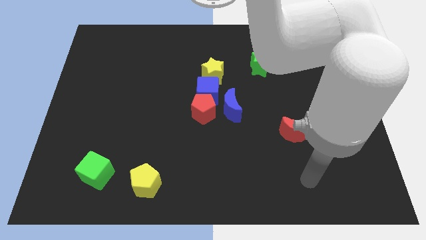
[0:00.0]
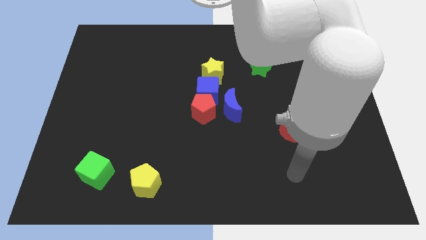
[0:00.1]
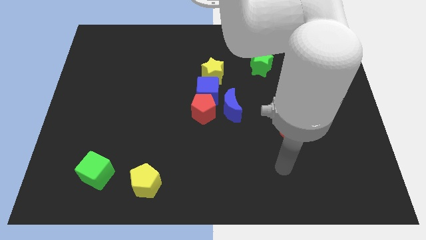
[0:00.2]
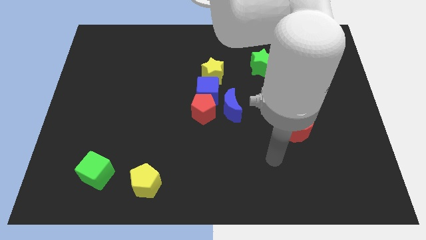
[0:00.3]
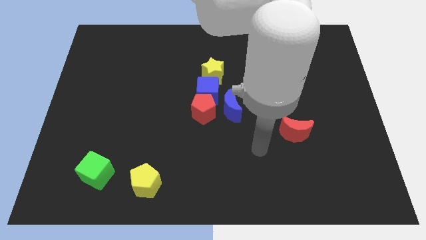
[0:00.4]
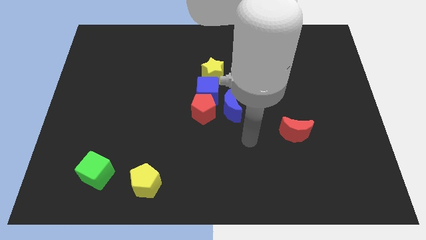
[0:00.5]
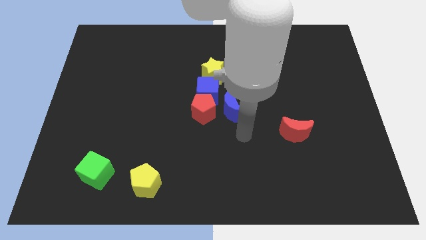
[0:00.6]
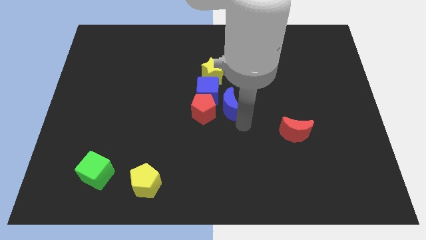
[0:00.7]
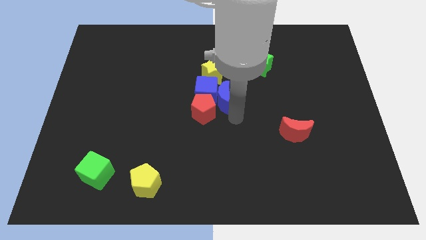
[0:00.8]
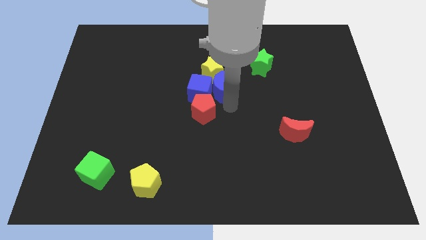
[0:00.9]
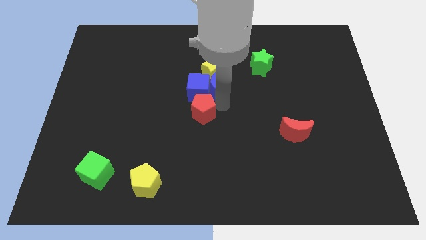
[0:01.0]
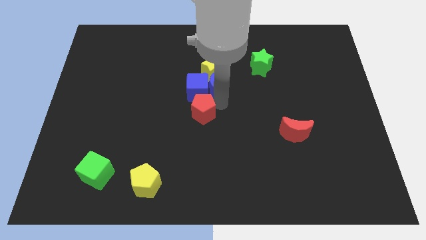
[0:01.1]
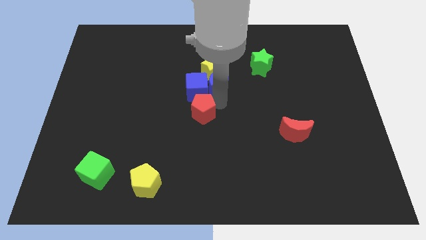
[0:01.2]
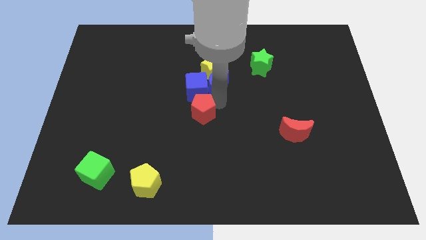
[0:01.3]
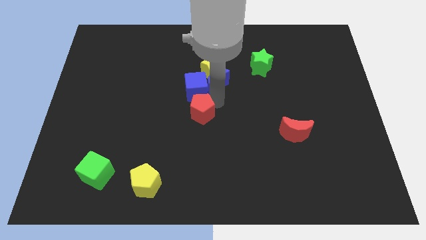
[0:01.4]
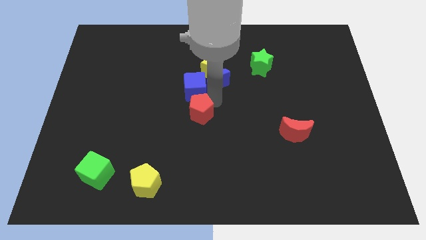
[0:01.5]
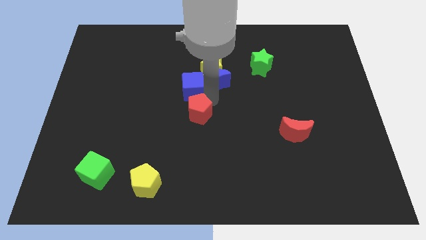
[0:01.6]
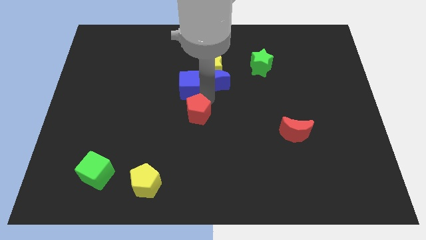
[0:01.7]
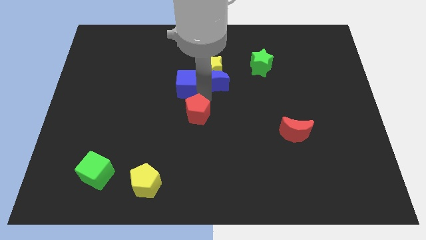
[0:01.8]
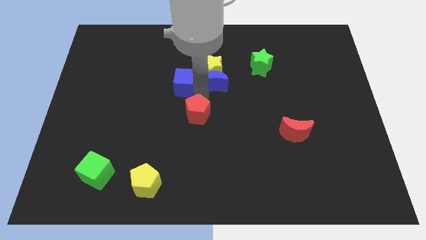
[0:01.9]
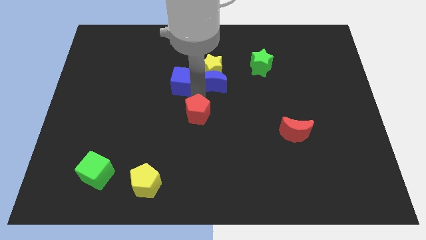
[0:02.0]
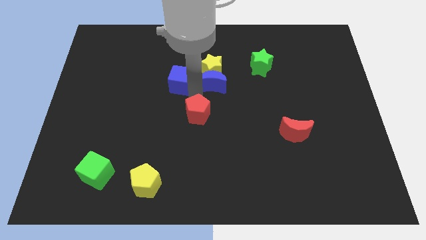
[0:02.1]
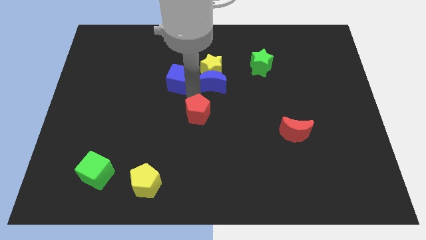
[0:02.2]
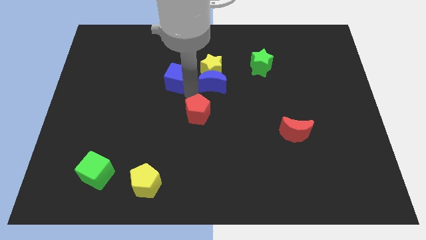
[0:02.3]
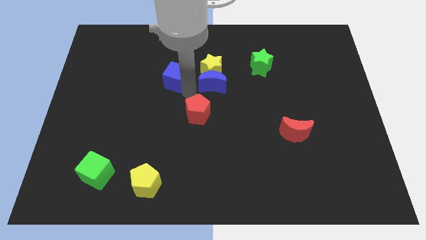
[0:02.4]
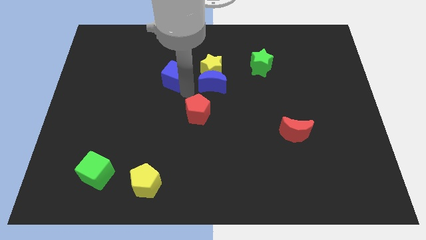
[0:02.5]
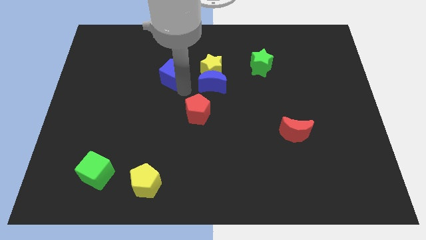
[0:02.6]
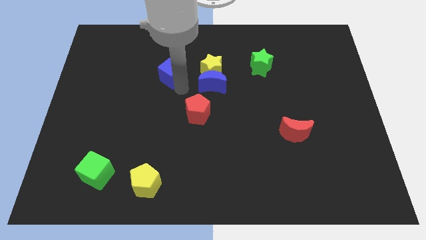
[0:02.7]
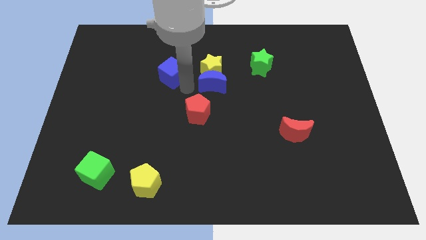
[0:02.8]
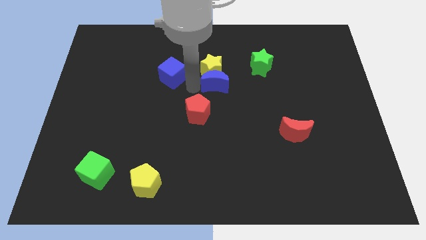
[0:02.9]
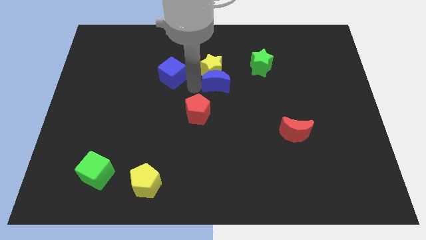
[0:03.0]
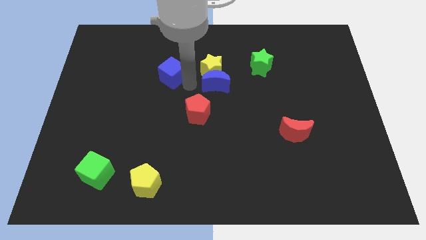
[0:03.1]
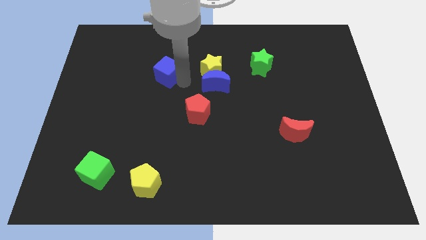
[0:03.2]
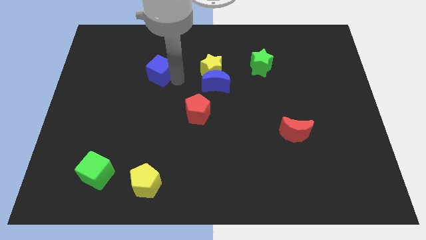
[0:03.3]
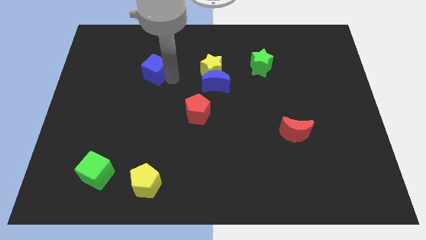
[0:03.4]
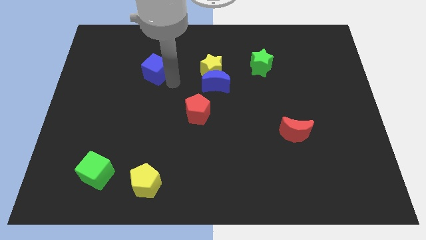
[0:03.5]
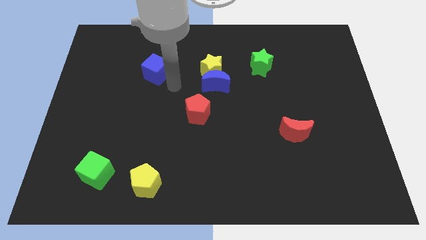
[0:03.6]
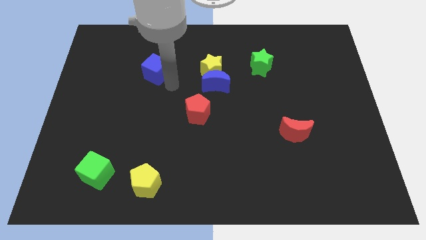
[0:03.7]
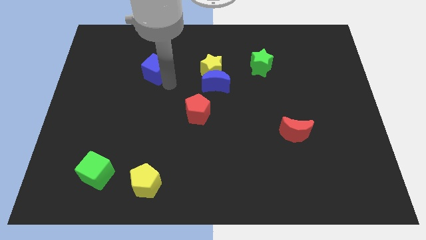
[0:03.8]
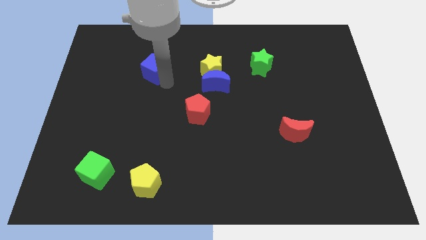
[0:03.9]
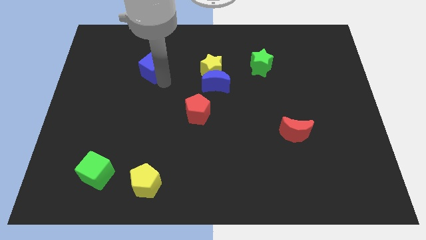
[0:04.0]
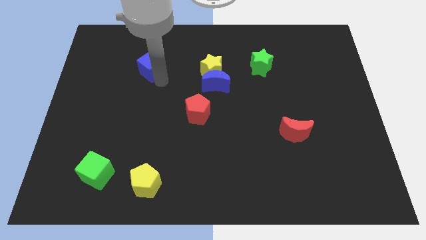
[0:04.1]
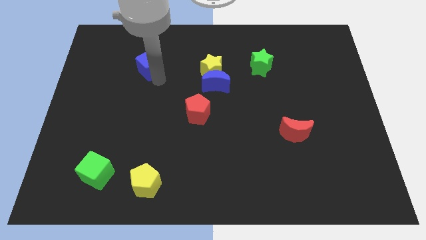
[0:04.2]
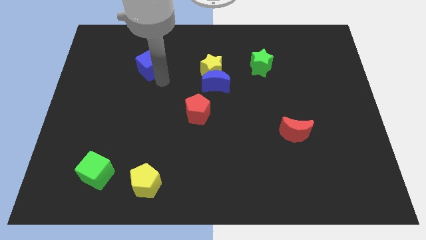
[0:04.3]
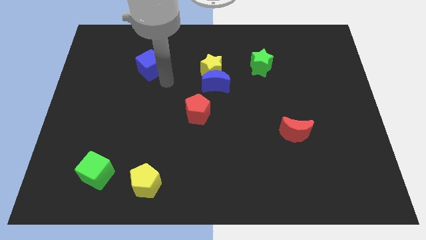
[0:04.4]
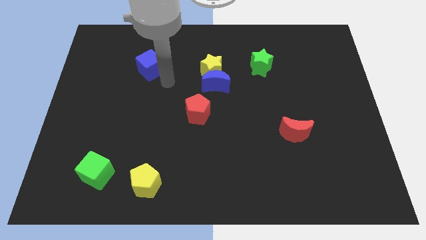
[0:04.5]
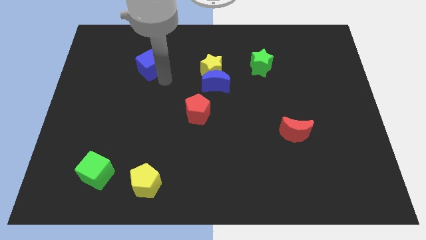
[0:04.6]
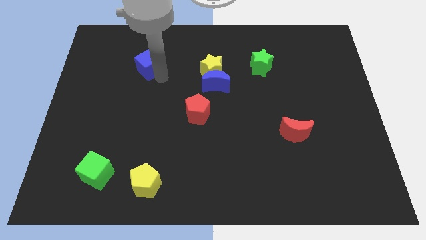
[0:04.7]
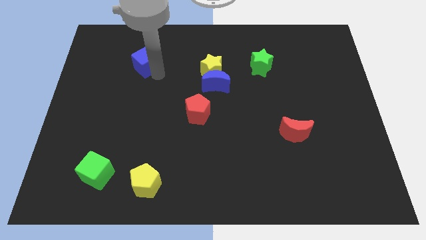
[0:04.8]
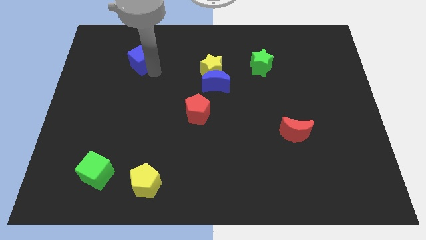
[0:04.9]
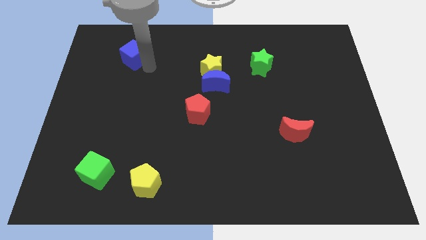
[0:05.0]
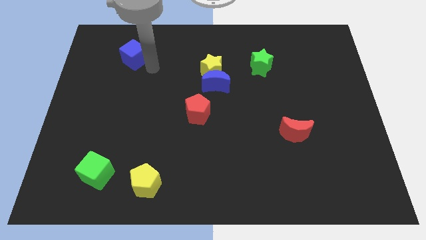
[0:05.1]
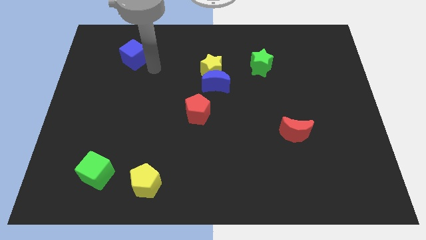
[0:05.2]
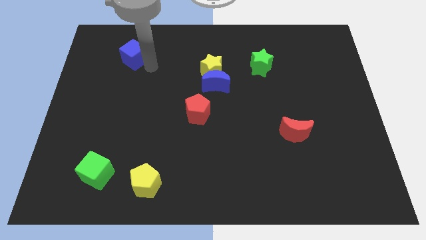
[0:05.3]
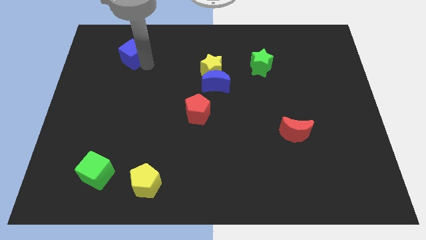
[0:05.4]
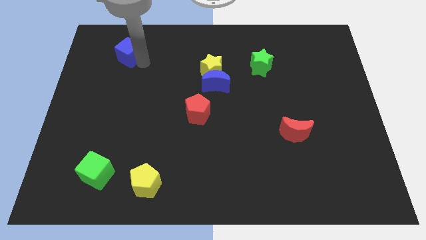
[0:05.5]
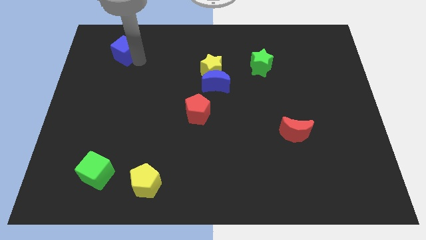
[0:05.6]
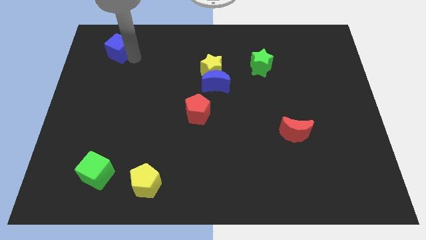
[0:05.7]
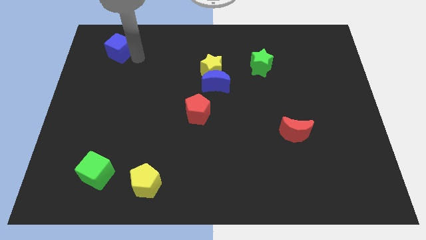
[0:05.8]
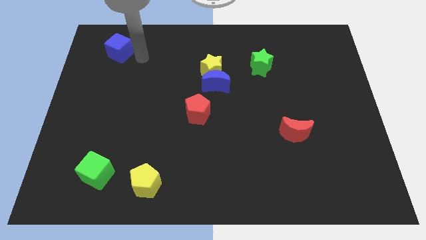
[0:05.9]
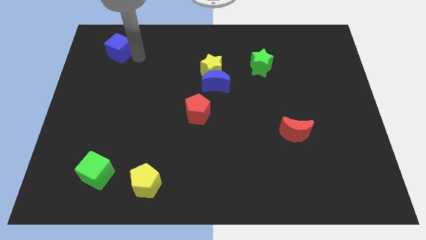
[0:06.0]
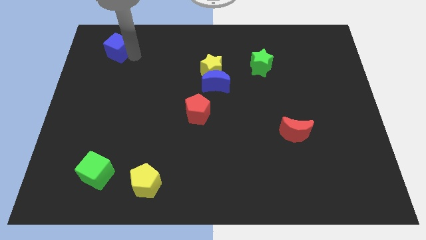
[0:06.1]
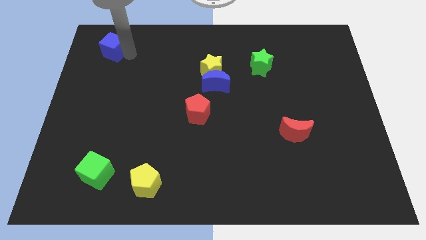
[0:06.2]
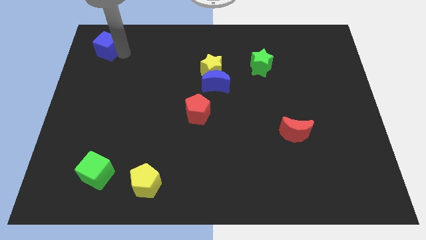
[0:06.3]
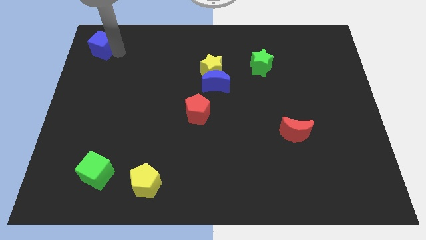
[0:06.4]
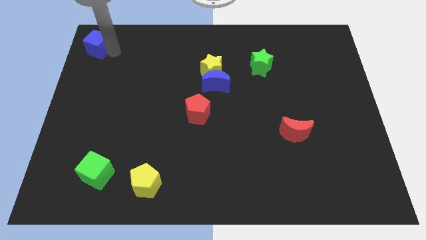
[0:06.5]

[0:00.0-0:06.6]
push the blue cube to the top left

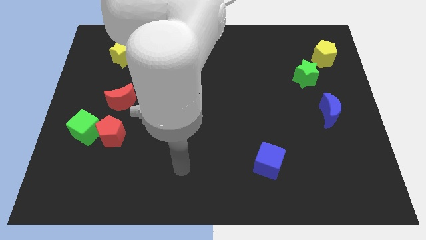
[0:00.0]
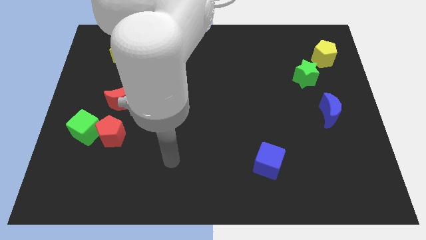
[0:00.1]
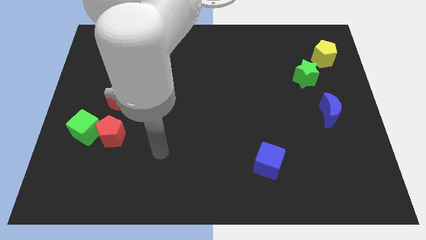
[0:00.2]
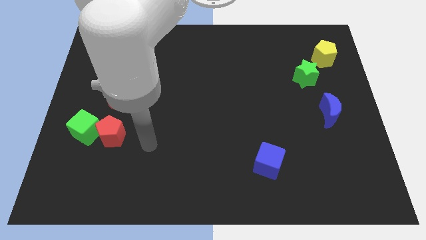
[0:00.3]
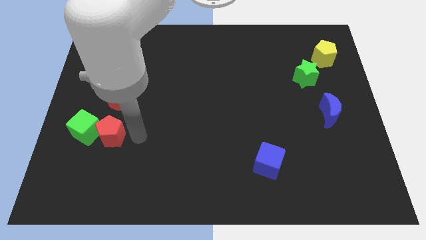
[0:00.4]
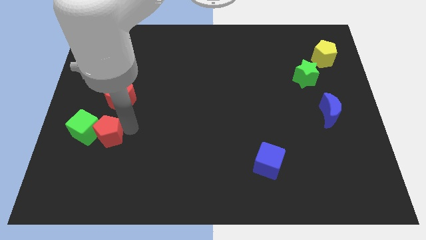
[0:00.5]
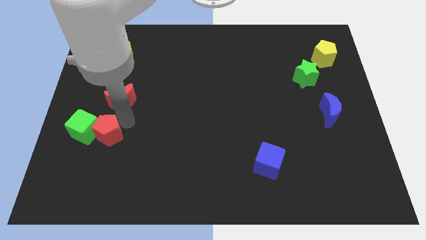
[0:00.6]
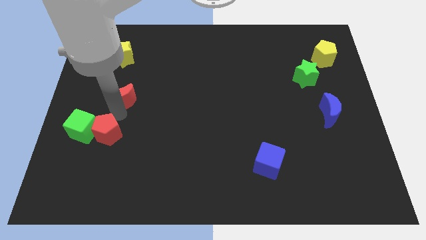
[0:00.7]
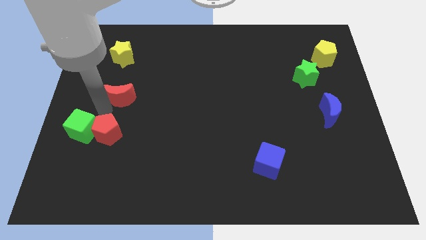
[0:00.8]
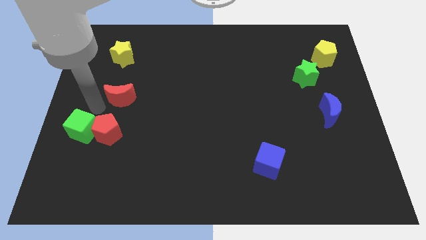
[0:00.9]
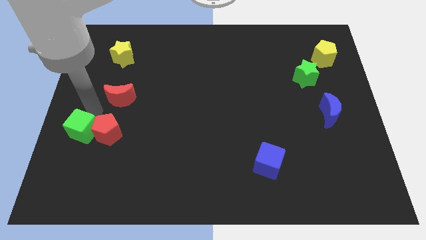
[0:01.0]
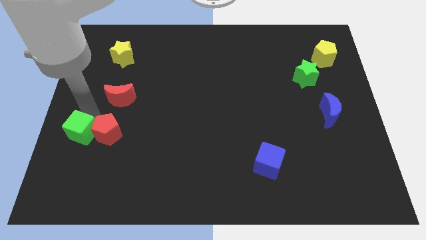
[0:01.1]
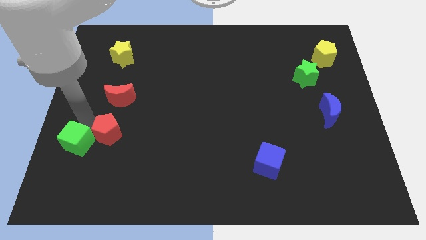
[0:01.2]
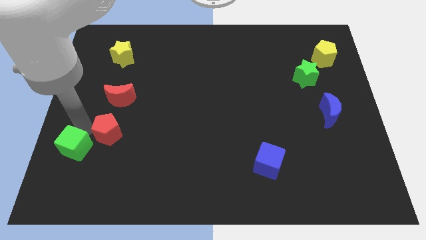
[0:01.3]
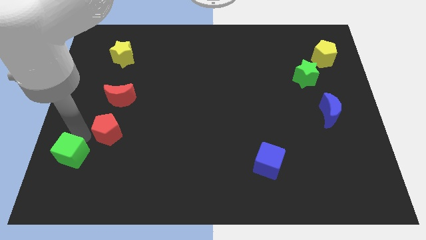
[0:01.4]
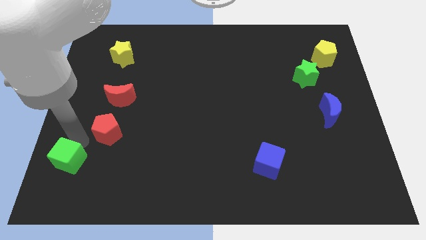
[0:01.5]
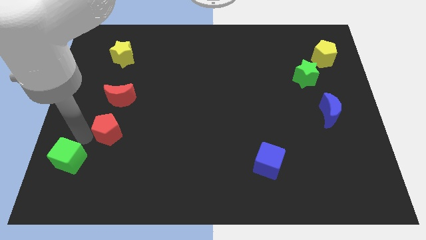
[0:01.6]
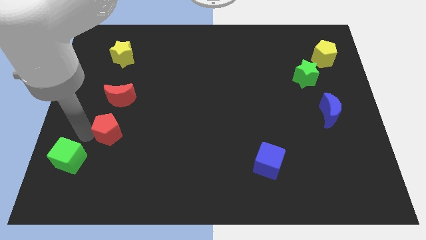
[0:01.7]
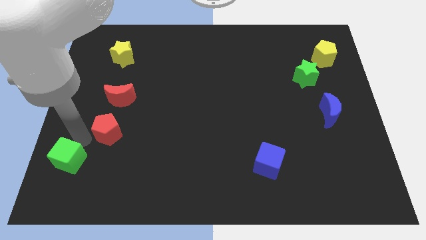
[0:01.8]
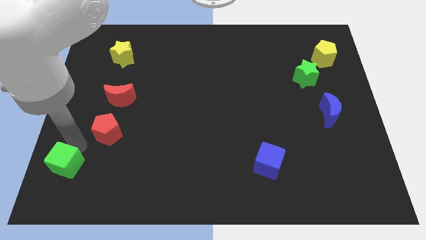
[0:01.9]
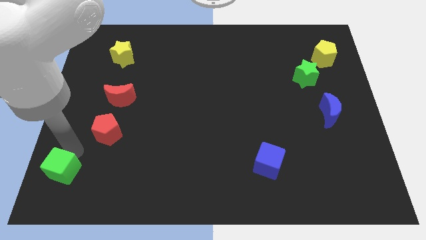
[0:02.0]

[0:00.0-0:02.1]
move the green cube to the bottom left
